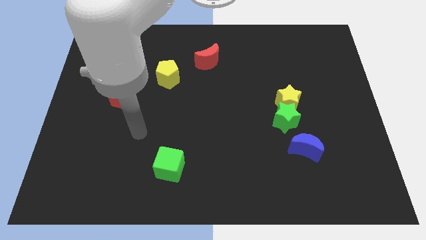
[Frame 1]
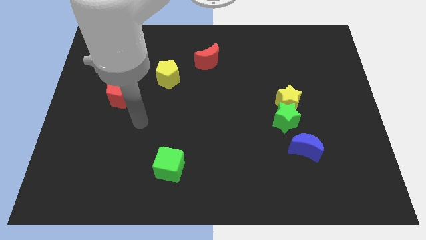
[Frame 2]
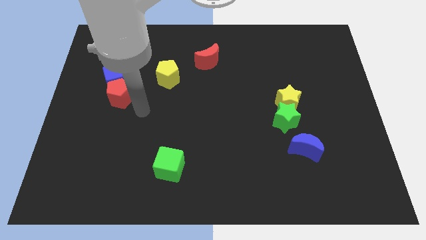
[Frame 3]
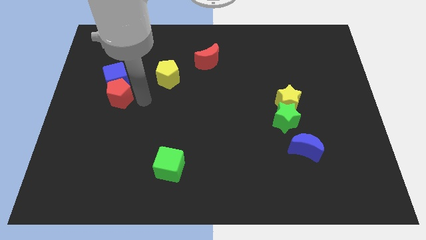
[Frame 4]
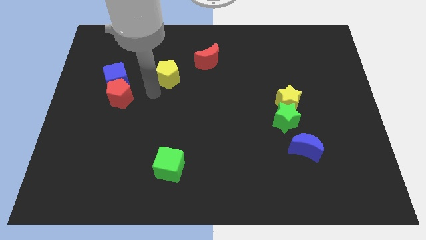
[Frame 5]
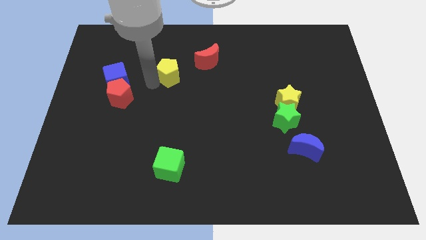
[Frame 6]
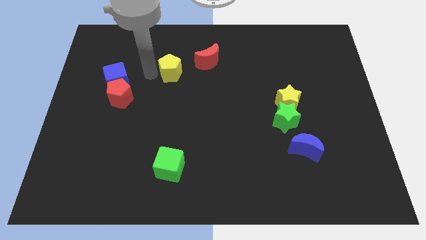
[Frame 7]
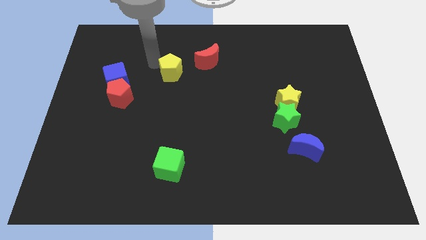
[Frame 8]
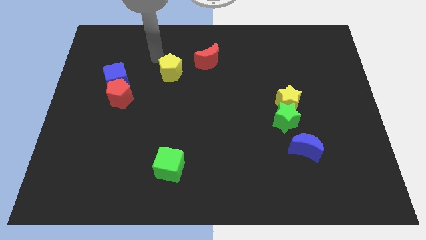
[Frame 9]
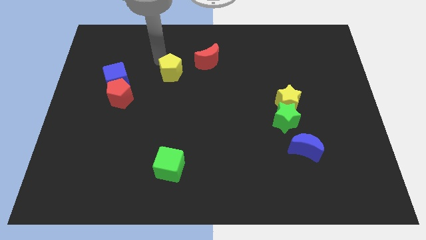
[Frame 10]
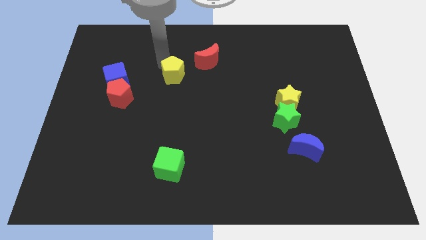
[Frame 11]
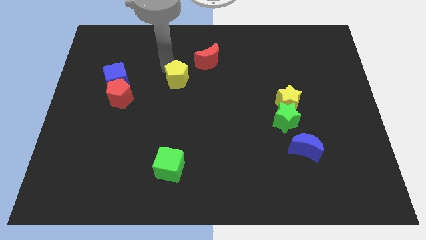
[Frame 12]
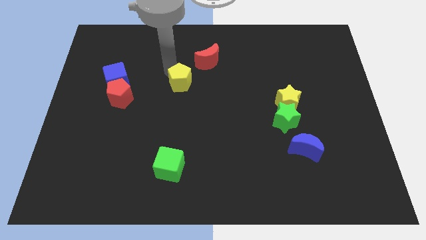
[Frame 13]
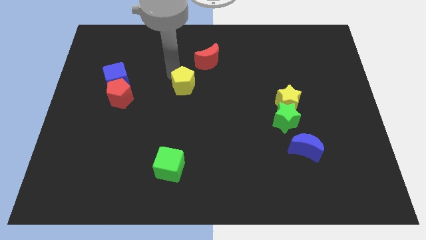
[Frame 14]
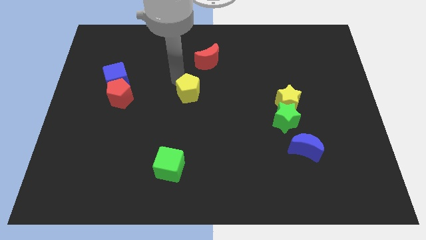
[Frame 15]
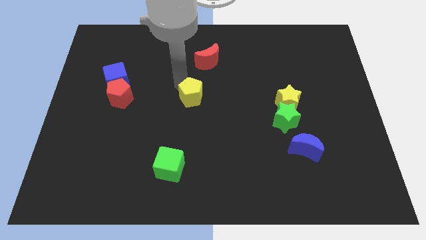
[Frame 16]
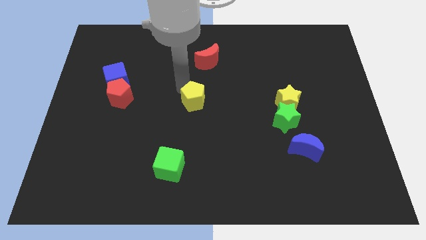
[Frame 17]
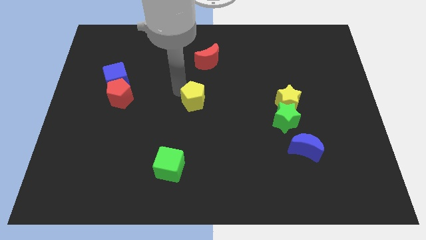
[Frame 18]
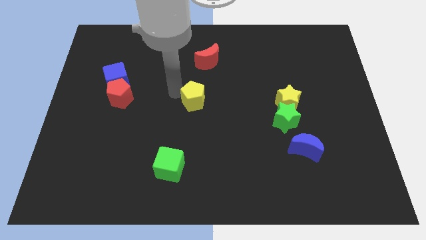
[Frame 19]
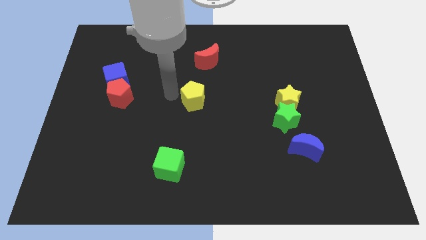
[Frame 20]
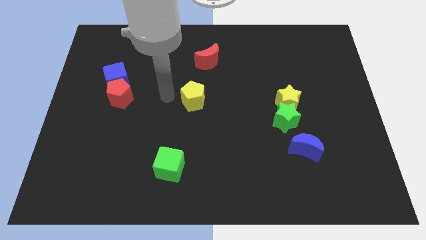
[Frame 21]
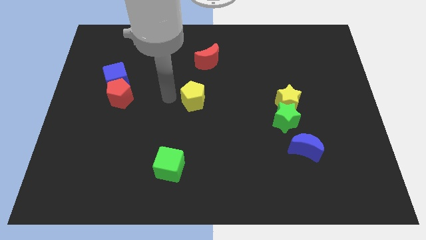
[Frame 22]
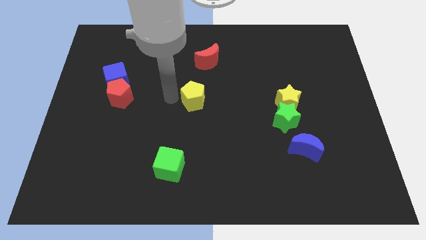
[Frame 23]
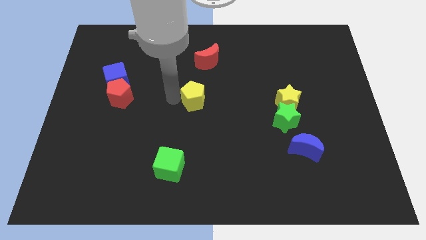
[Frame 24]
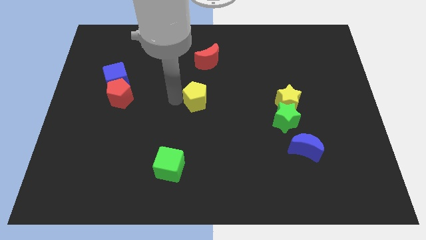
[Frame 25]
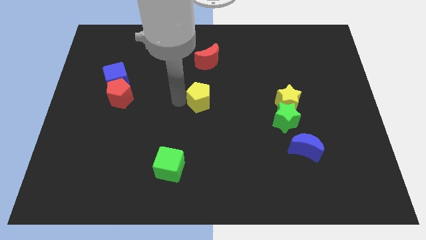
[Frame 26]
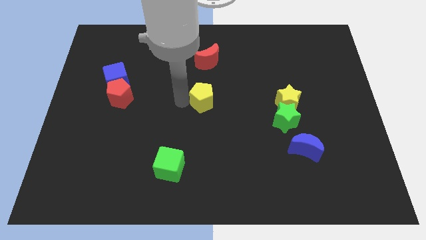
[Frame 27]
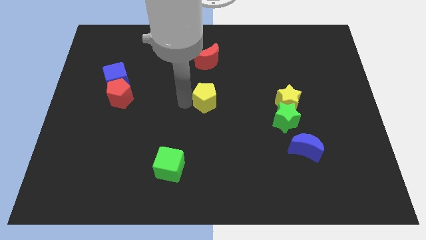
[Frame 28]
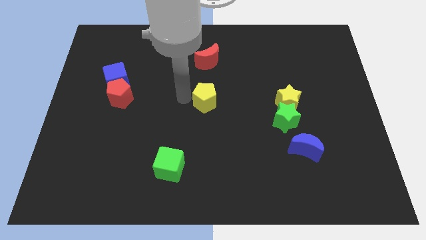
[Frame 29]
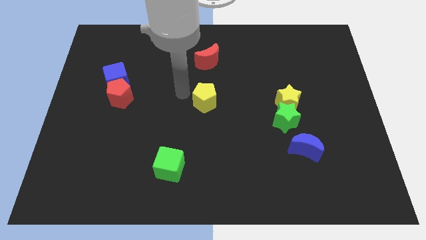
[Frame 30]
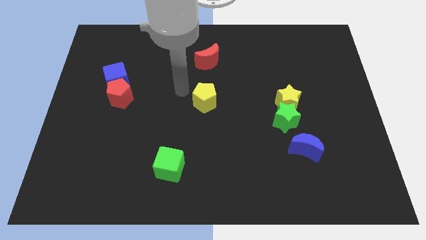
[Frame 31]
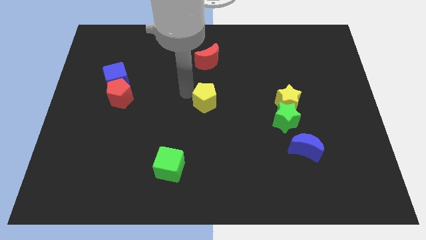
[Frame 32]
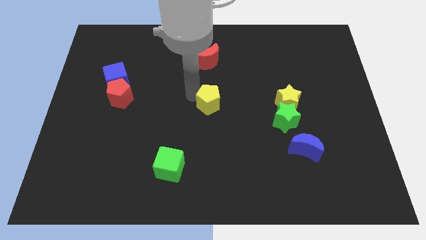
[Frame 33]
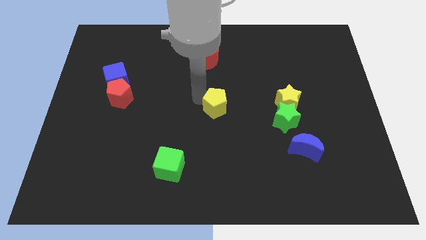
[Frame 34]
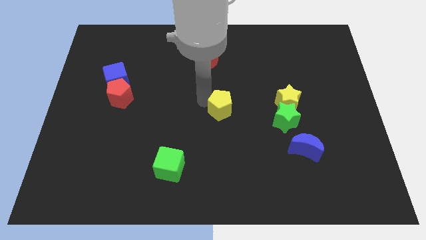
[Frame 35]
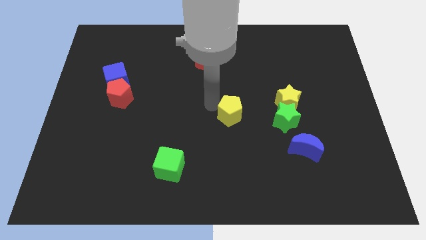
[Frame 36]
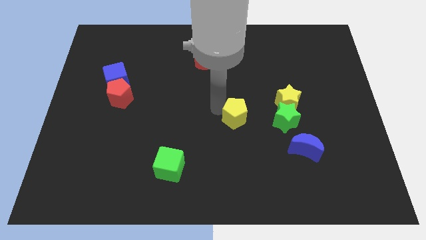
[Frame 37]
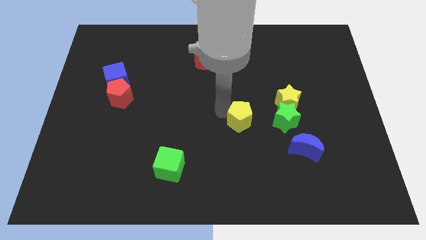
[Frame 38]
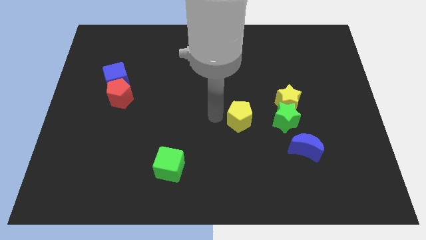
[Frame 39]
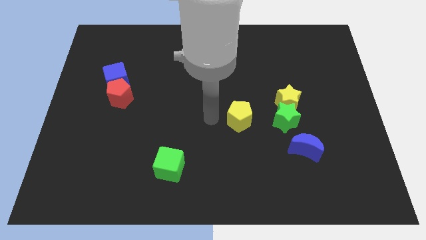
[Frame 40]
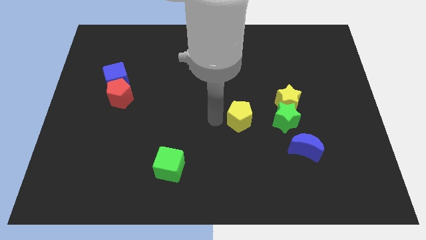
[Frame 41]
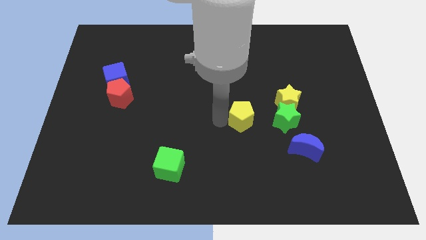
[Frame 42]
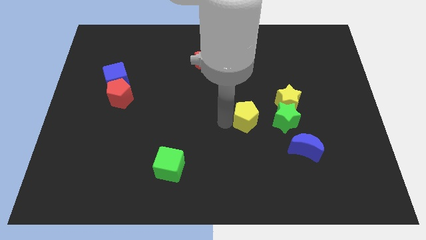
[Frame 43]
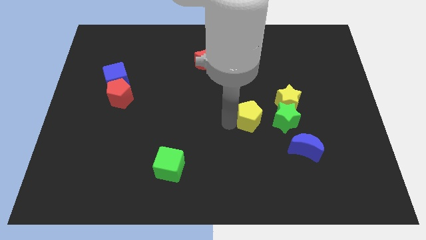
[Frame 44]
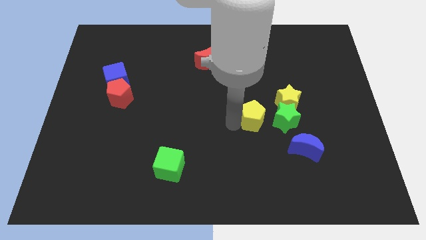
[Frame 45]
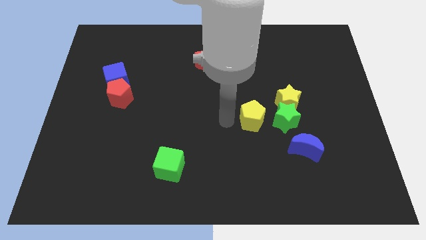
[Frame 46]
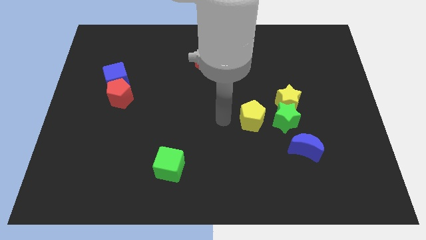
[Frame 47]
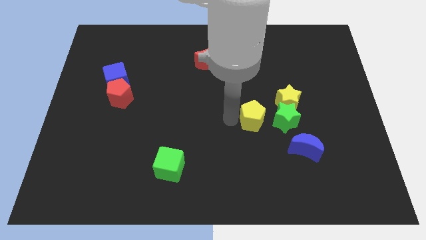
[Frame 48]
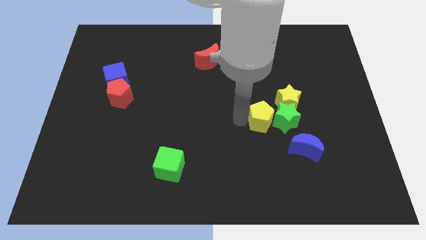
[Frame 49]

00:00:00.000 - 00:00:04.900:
put the yellow pentagon close to the green star

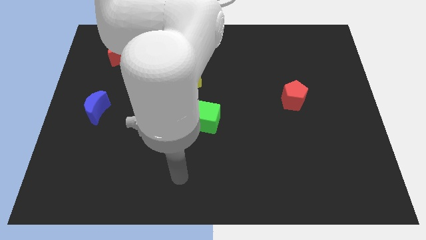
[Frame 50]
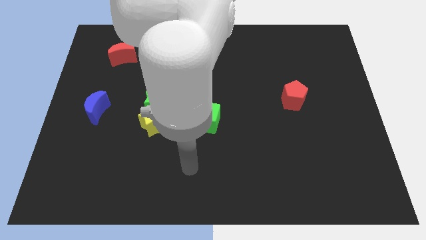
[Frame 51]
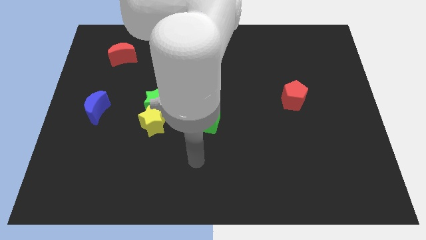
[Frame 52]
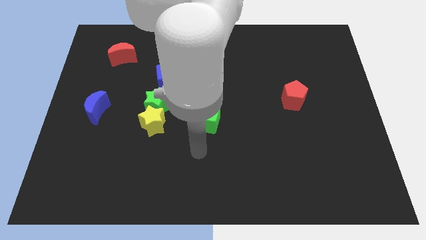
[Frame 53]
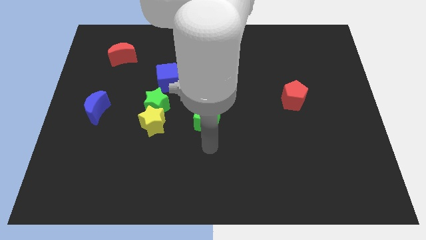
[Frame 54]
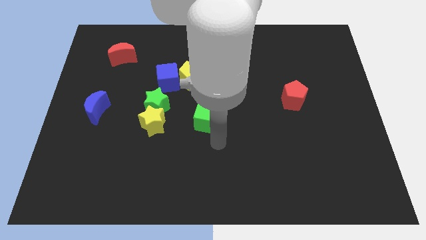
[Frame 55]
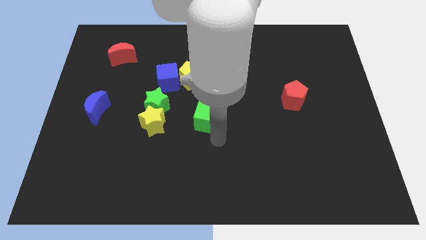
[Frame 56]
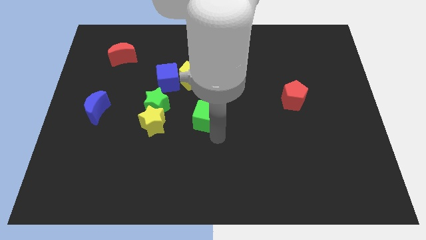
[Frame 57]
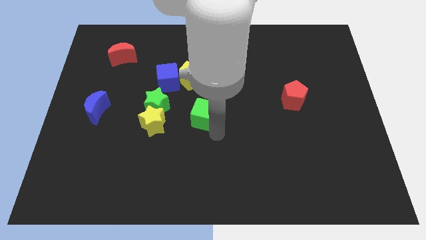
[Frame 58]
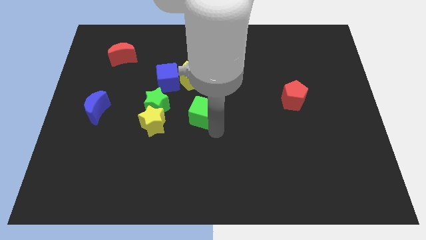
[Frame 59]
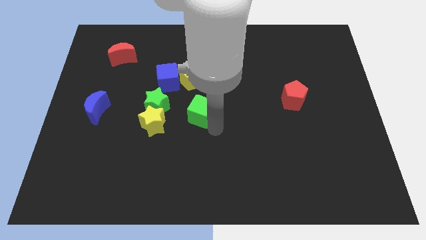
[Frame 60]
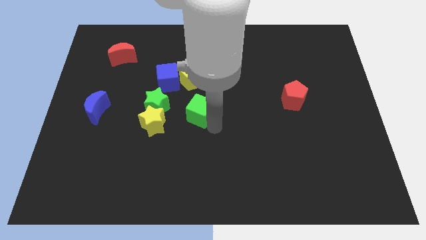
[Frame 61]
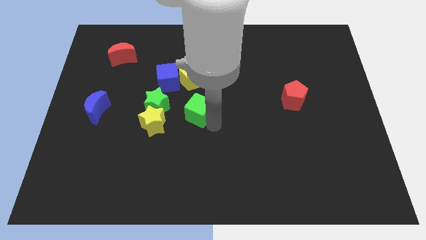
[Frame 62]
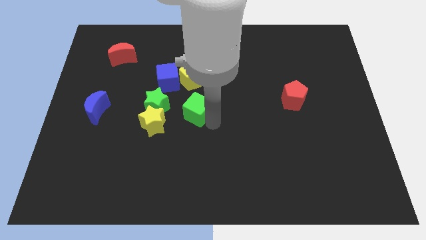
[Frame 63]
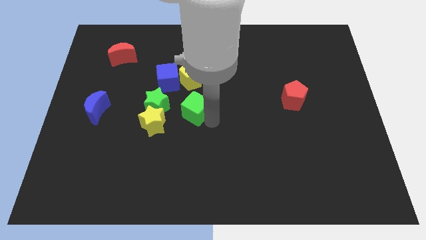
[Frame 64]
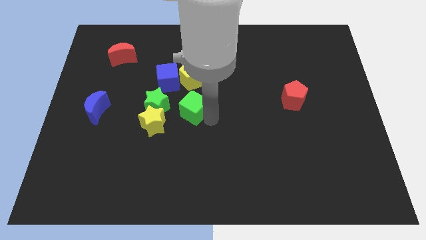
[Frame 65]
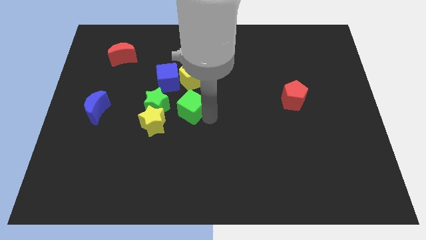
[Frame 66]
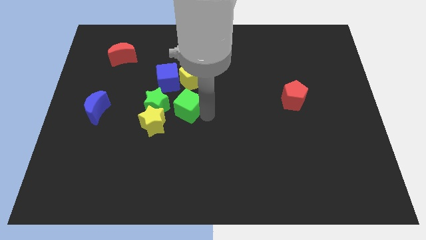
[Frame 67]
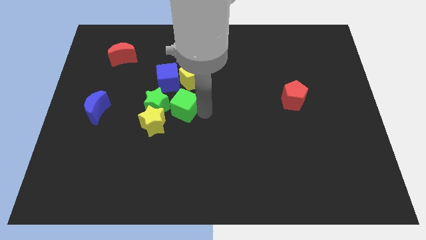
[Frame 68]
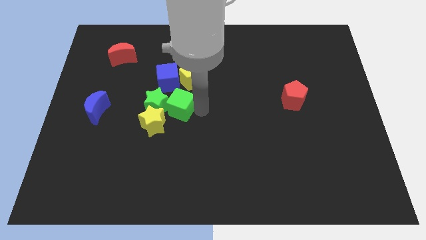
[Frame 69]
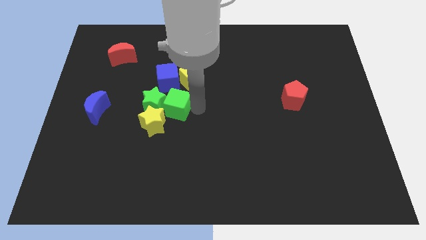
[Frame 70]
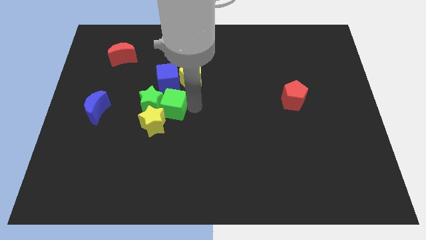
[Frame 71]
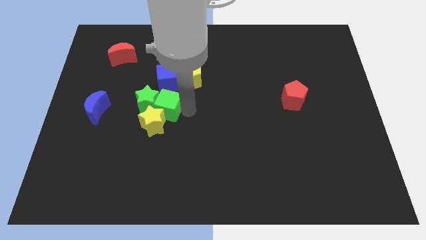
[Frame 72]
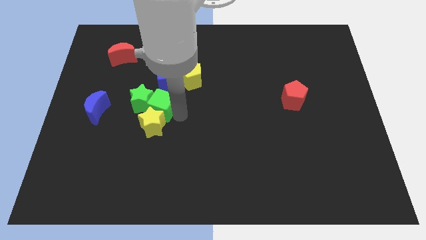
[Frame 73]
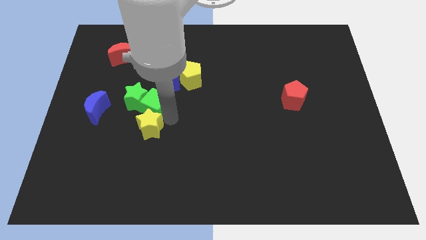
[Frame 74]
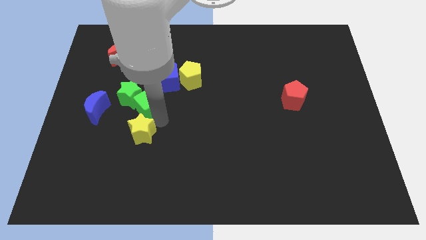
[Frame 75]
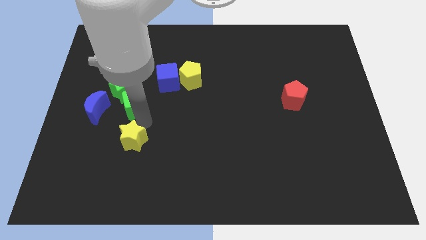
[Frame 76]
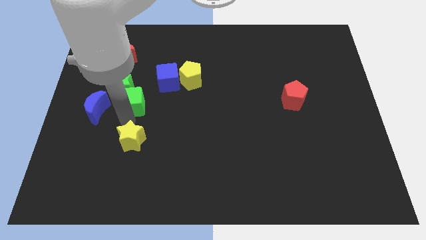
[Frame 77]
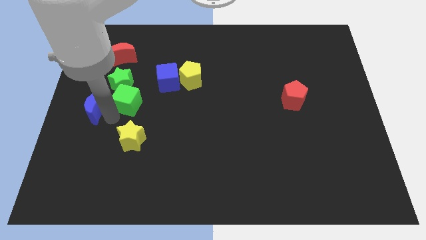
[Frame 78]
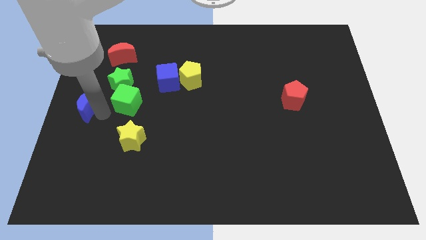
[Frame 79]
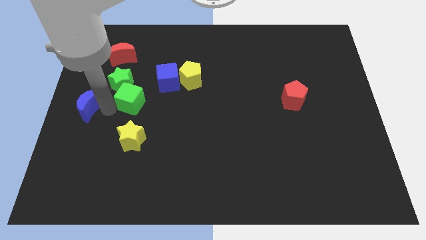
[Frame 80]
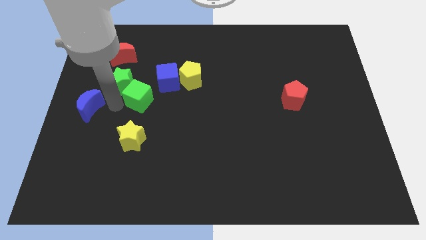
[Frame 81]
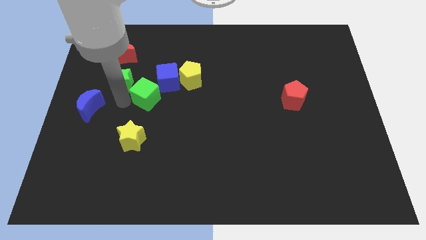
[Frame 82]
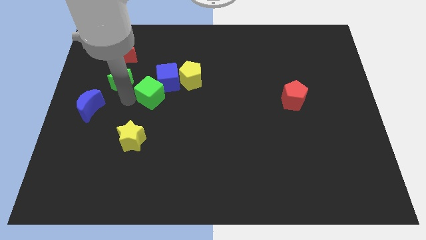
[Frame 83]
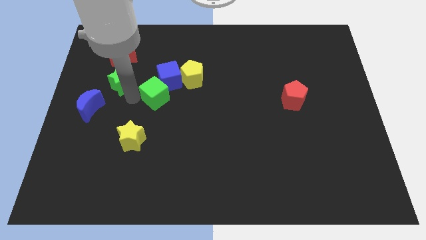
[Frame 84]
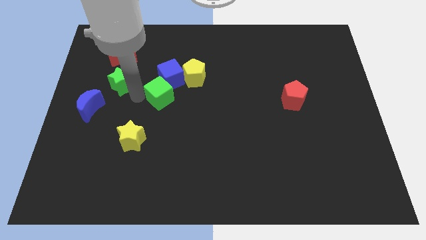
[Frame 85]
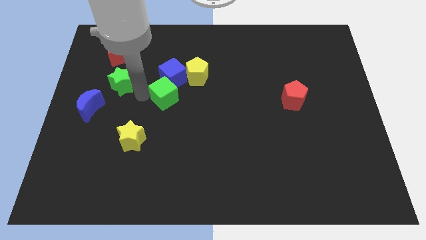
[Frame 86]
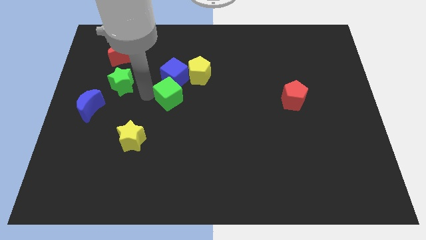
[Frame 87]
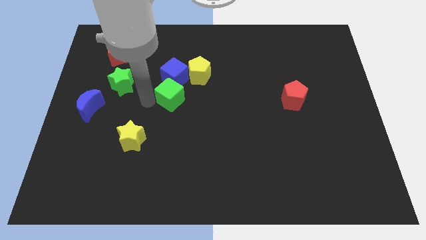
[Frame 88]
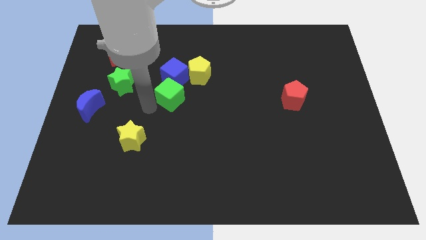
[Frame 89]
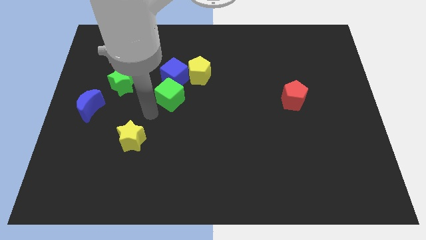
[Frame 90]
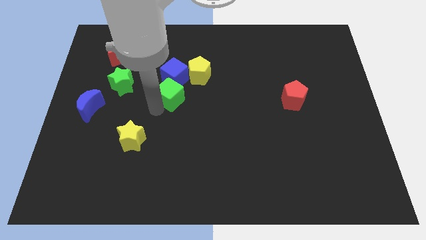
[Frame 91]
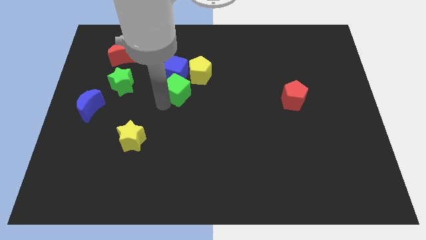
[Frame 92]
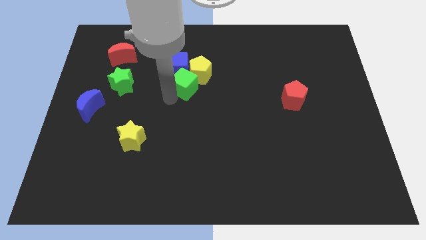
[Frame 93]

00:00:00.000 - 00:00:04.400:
push the green cube next to the yellow pentagon
